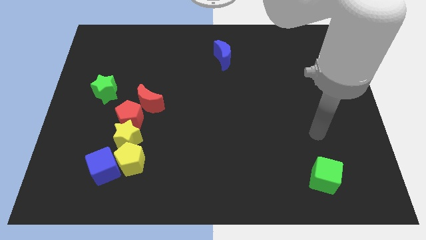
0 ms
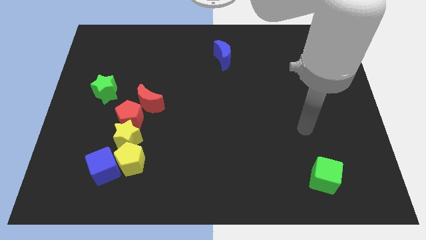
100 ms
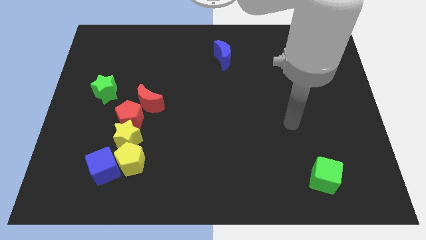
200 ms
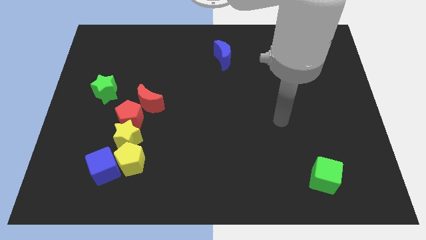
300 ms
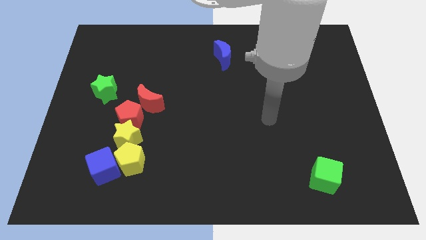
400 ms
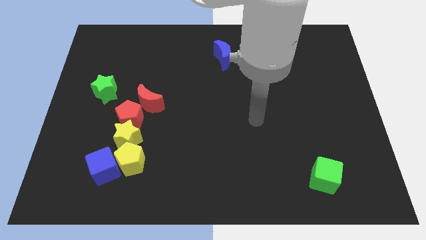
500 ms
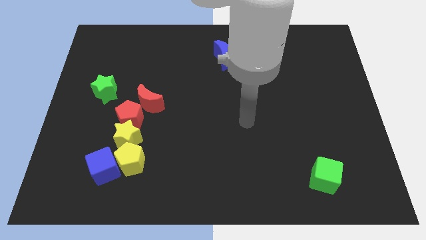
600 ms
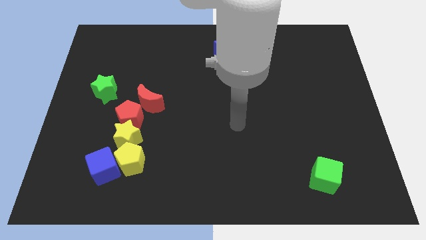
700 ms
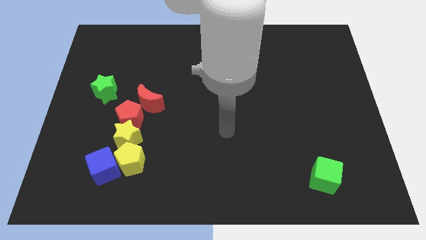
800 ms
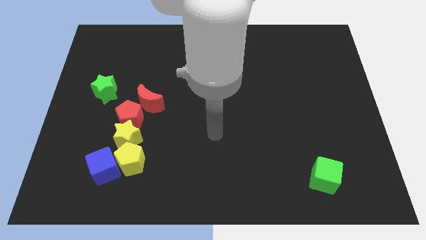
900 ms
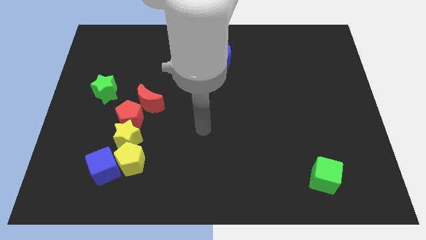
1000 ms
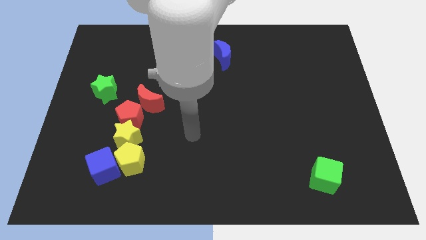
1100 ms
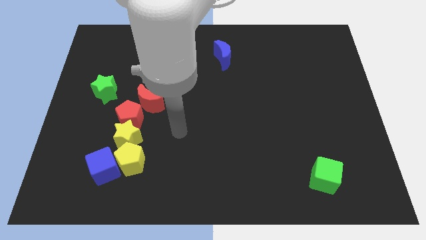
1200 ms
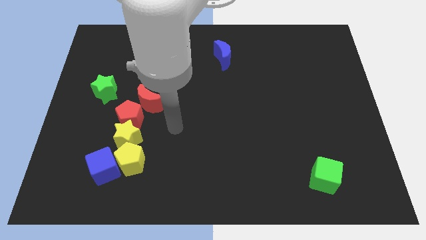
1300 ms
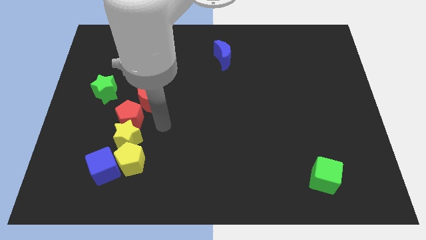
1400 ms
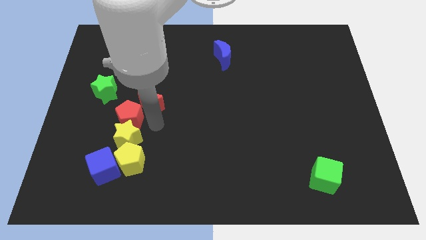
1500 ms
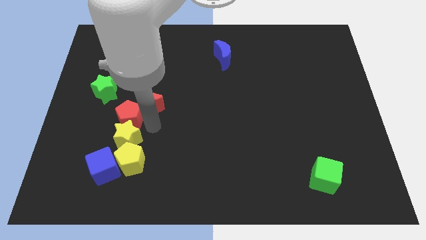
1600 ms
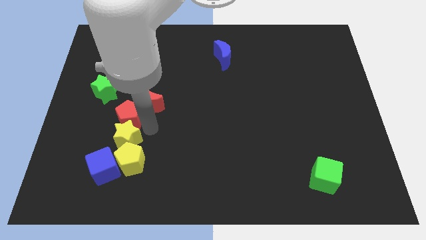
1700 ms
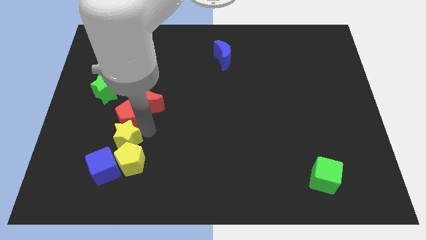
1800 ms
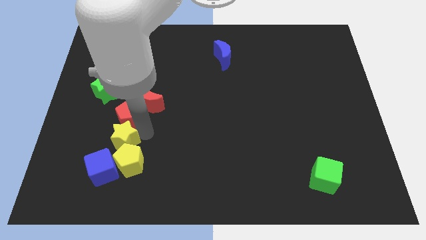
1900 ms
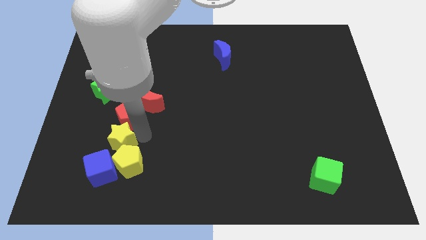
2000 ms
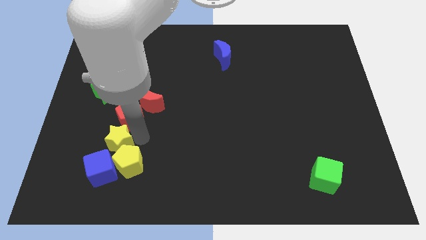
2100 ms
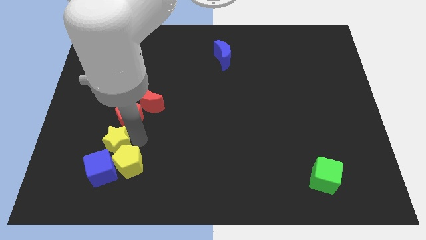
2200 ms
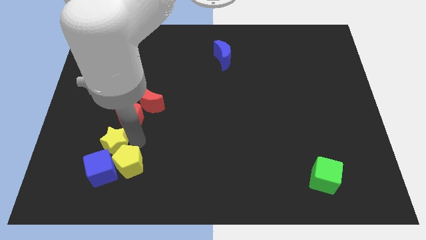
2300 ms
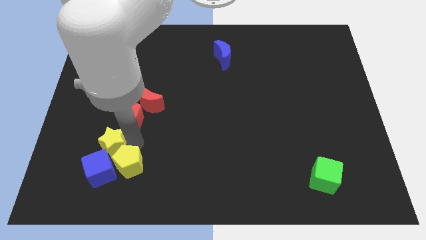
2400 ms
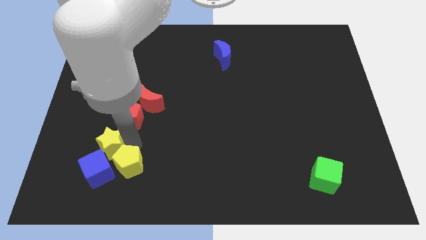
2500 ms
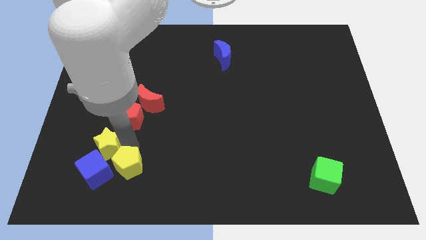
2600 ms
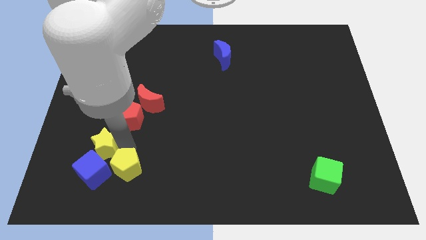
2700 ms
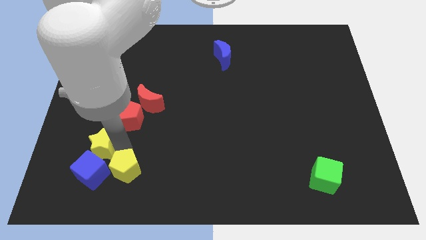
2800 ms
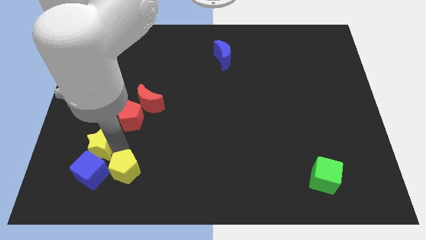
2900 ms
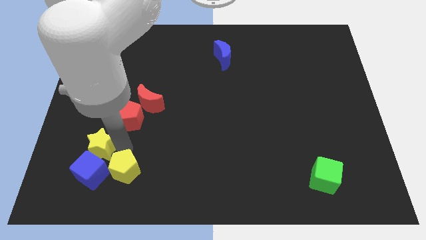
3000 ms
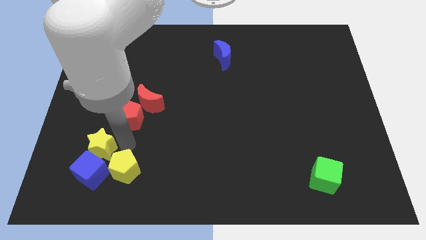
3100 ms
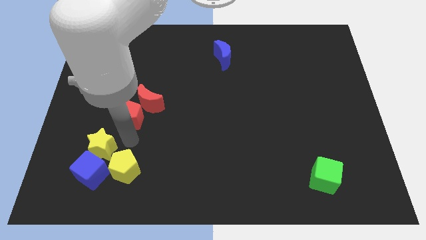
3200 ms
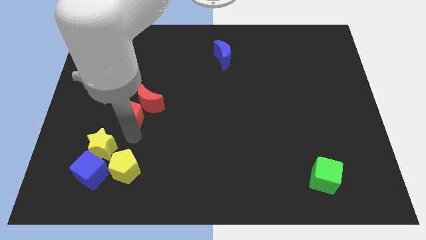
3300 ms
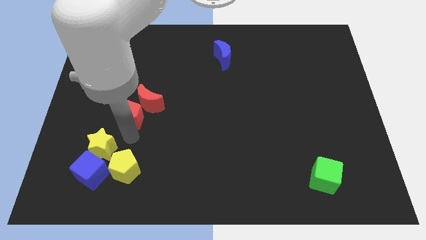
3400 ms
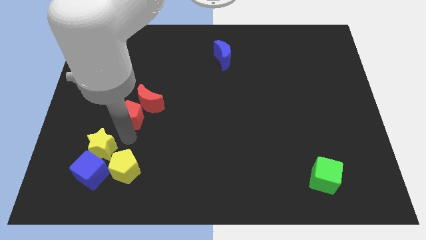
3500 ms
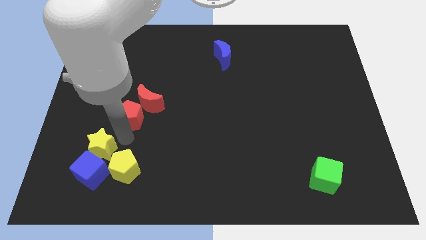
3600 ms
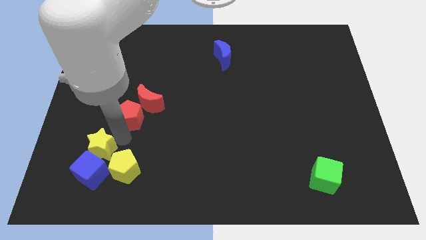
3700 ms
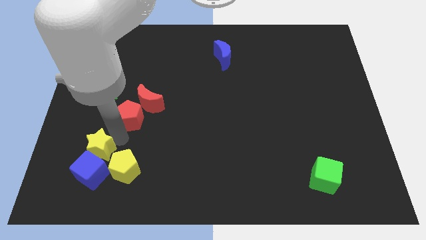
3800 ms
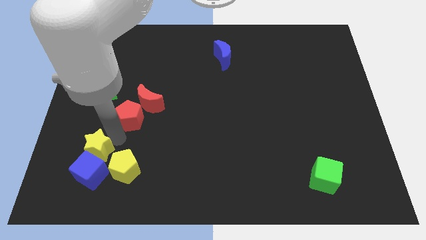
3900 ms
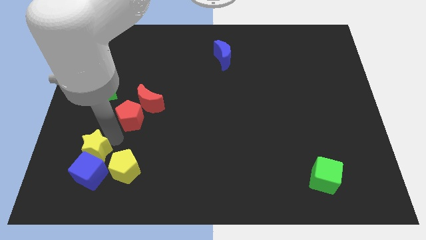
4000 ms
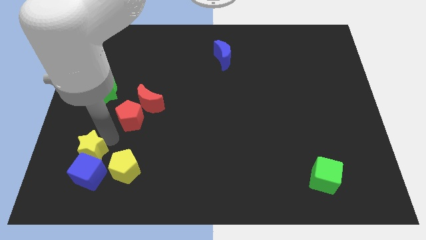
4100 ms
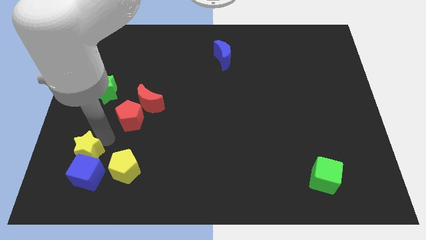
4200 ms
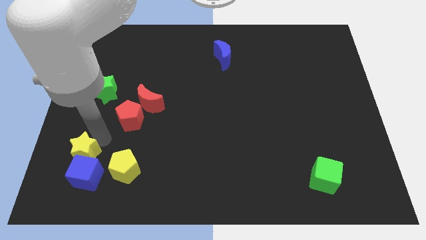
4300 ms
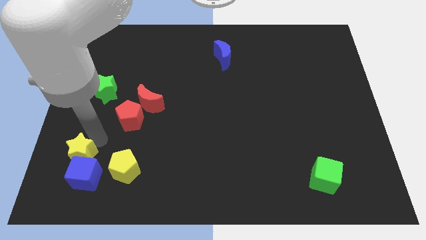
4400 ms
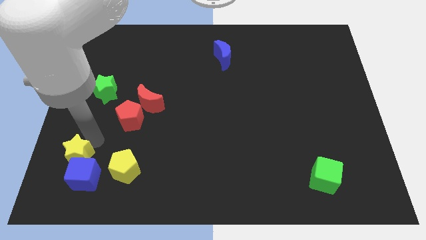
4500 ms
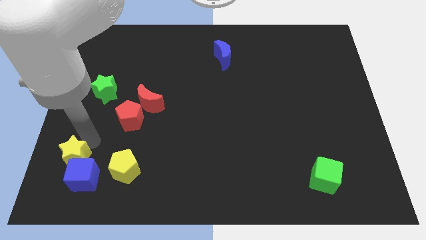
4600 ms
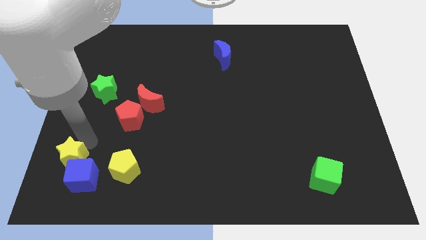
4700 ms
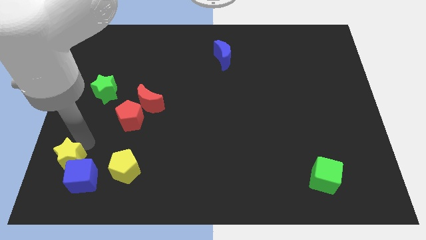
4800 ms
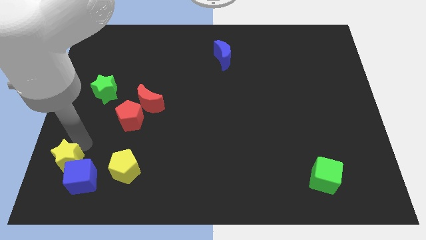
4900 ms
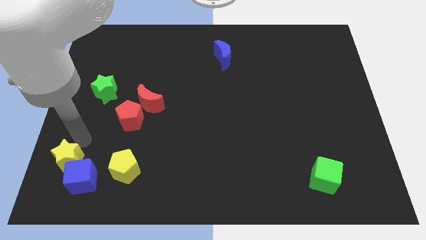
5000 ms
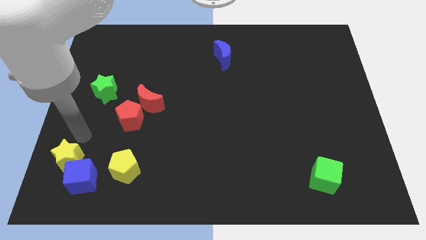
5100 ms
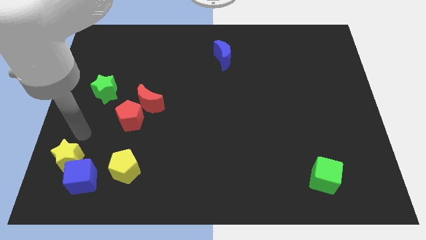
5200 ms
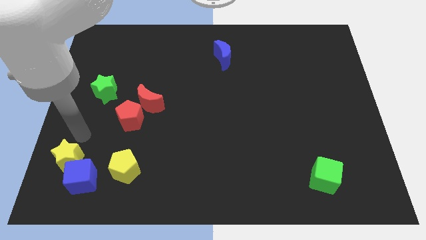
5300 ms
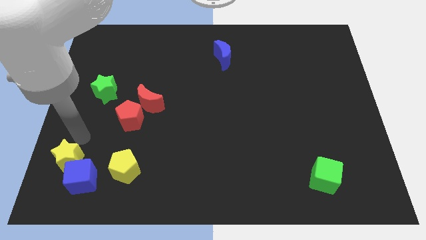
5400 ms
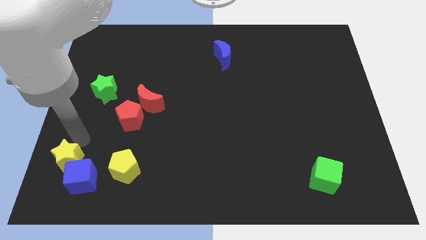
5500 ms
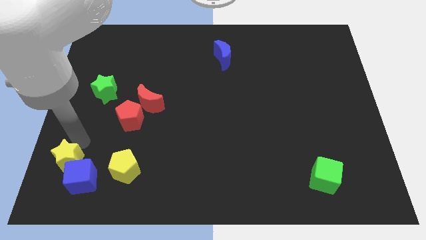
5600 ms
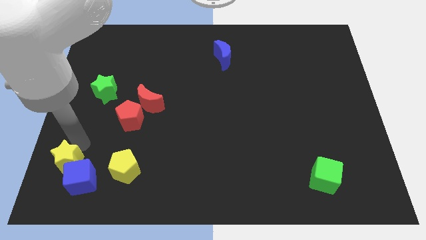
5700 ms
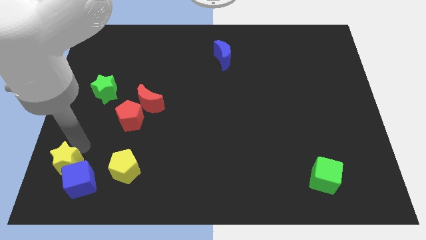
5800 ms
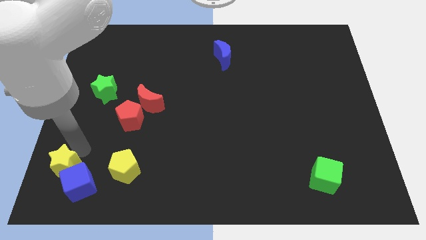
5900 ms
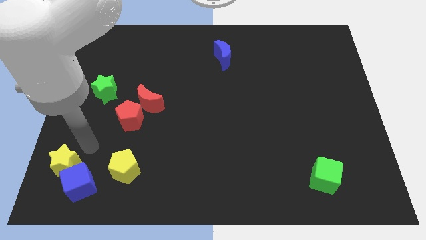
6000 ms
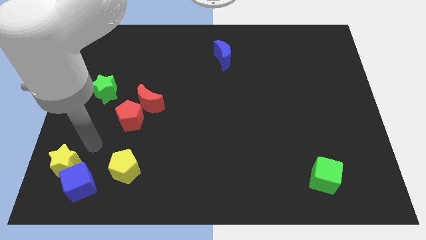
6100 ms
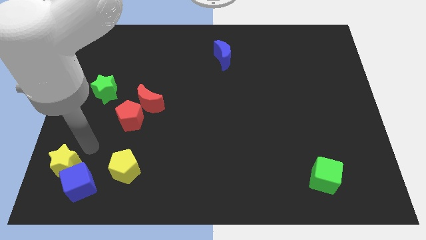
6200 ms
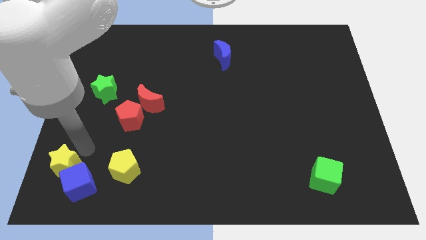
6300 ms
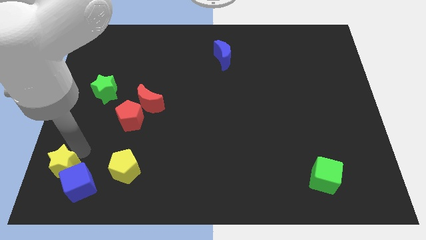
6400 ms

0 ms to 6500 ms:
move the yellow star to the bottom left
